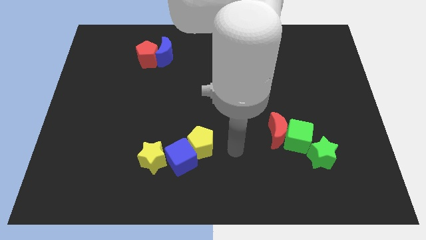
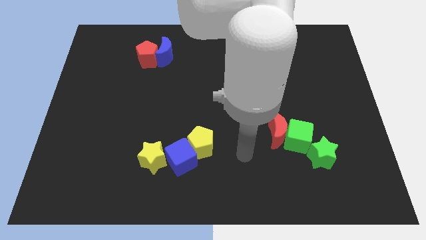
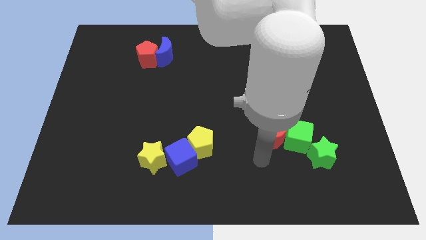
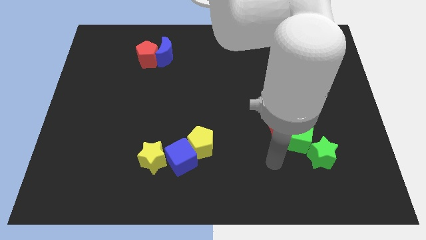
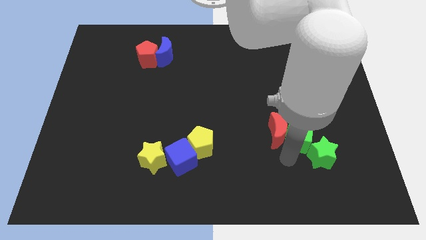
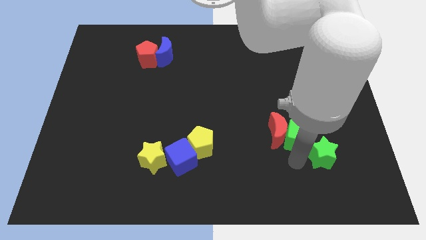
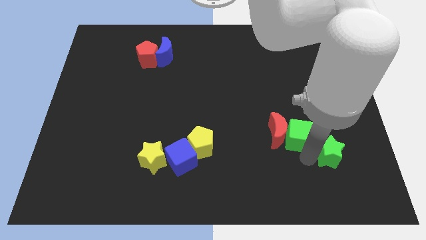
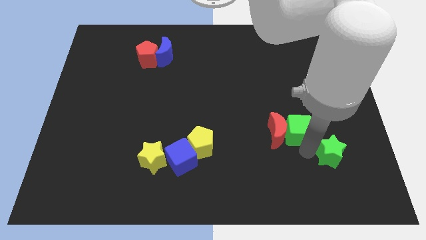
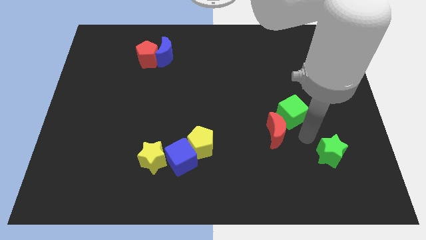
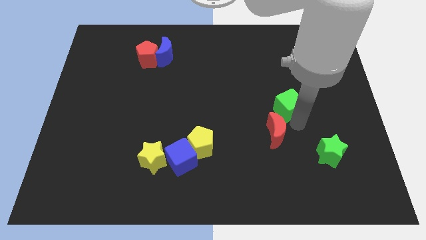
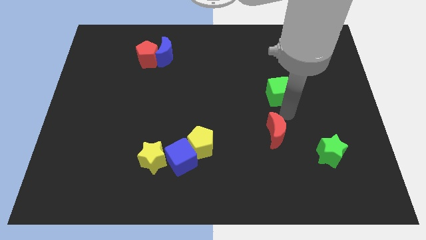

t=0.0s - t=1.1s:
move the red moon away from the green cube

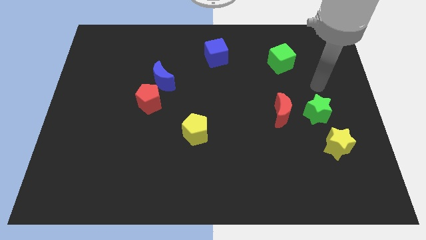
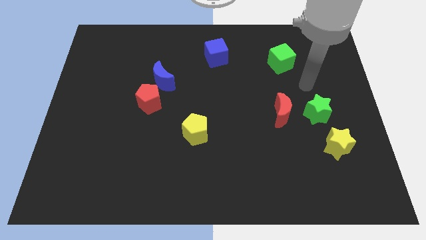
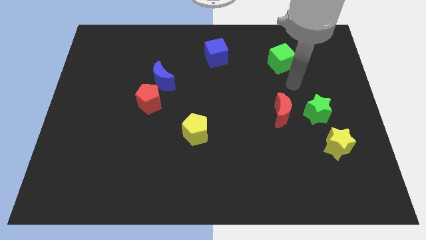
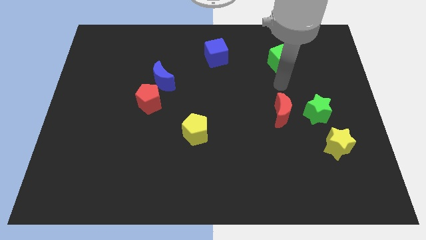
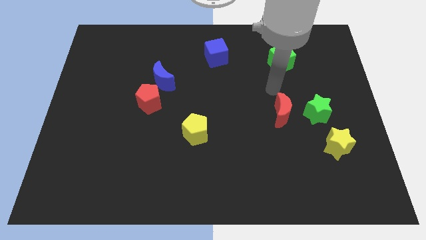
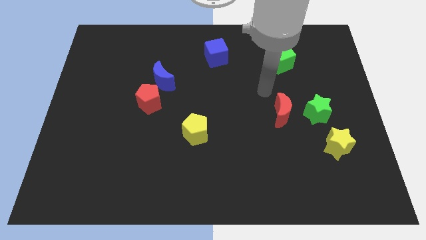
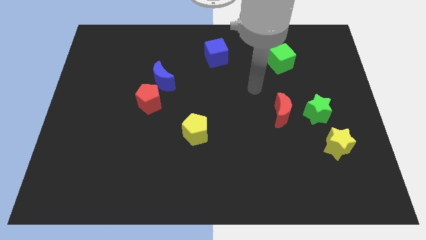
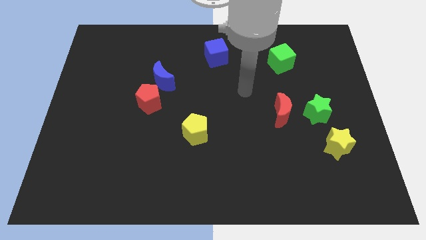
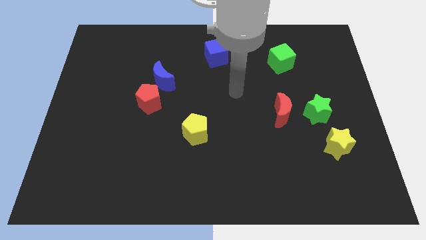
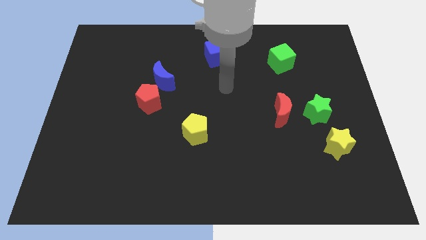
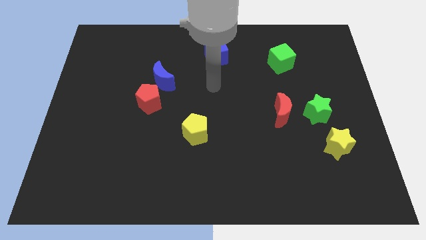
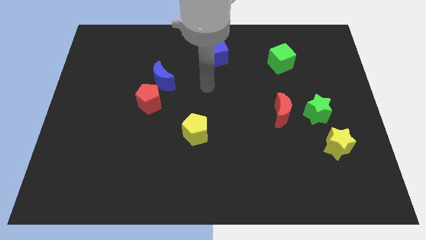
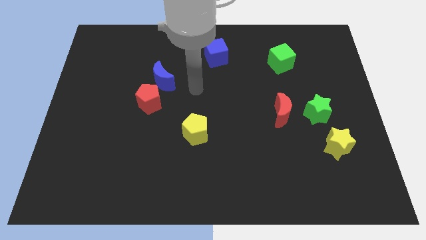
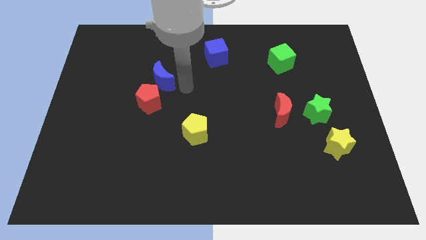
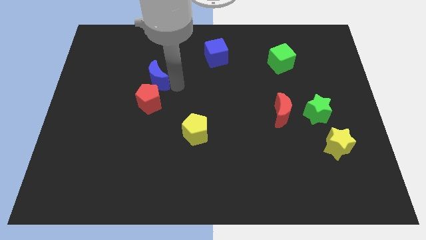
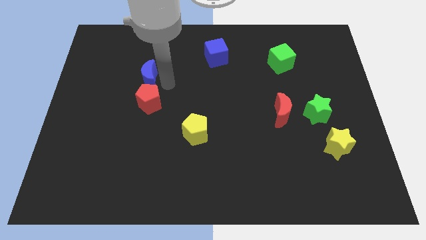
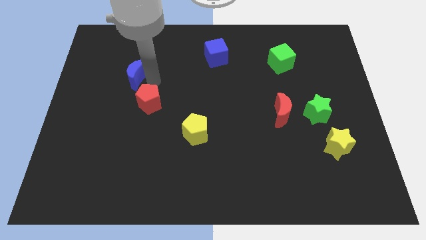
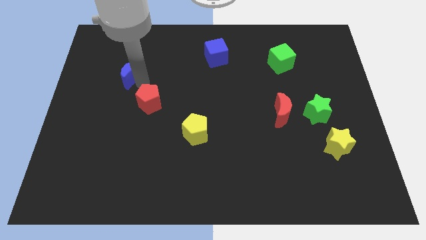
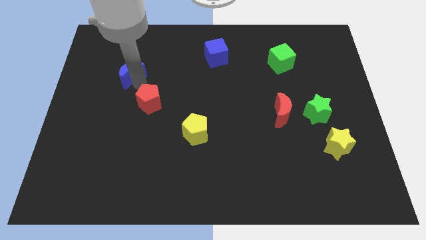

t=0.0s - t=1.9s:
move the red pentagon away from the blue moon

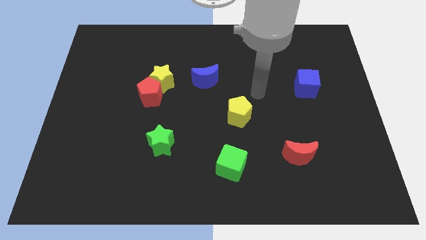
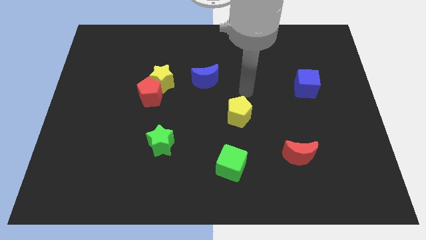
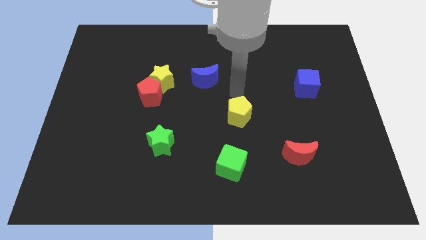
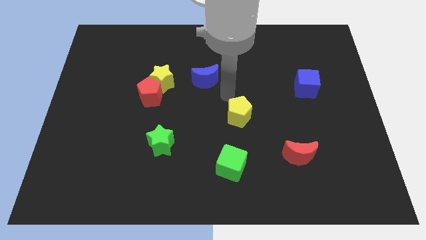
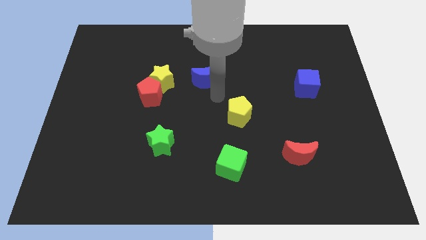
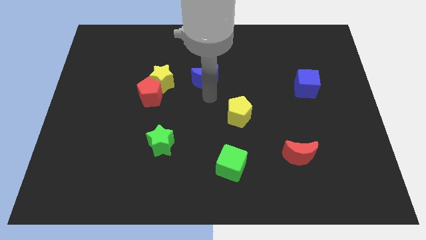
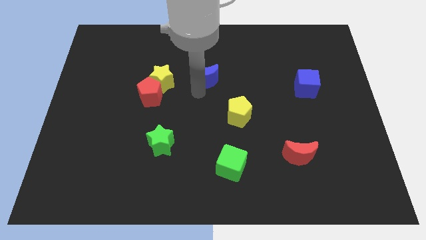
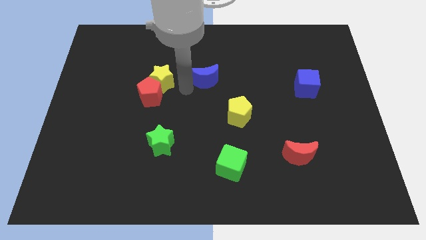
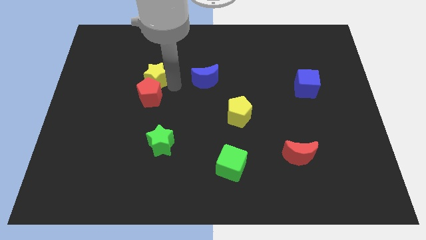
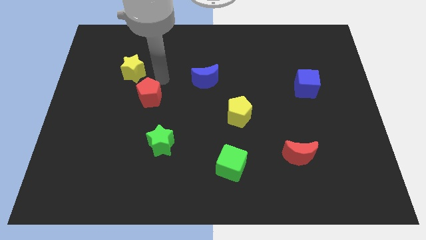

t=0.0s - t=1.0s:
pull the red pentagon apart from the yellow star

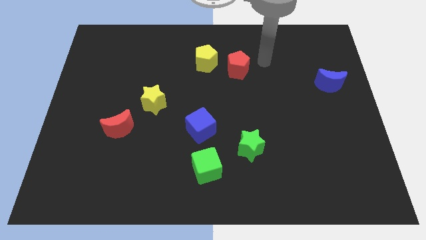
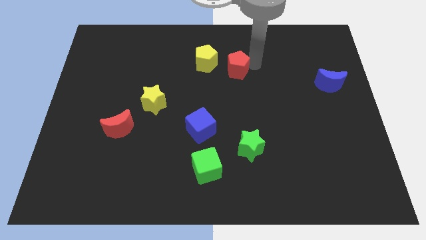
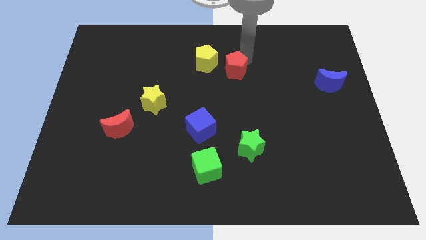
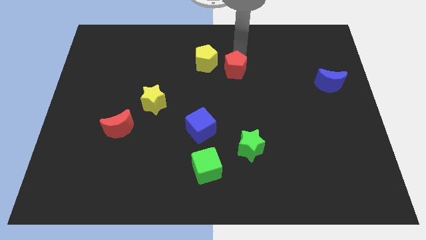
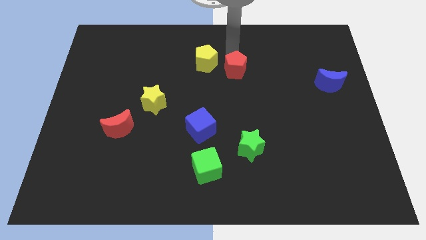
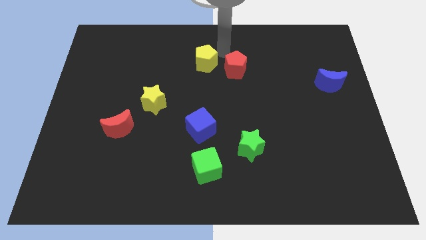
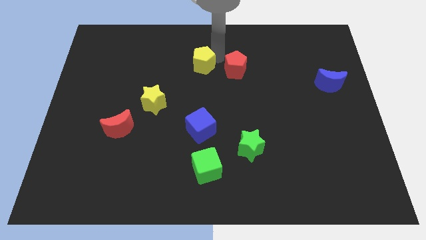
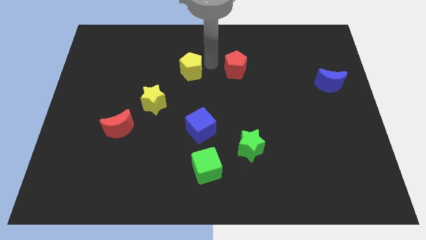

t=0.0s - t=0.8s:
separate the red pentagon from the yellow pentagon

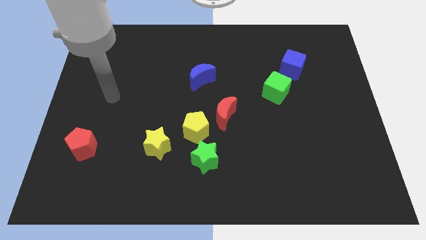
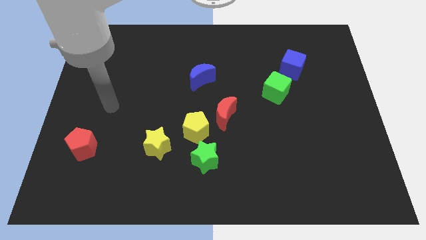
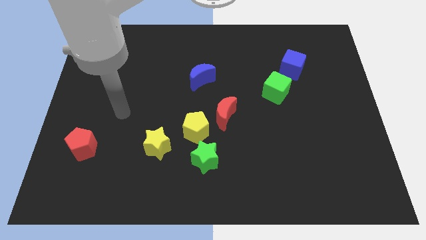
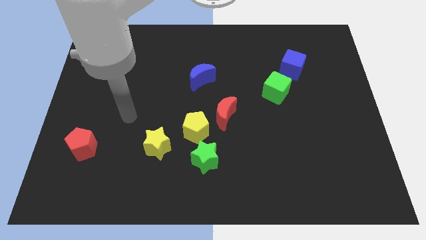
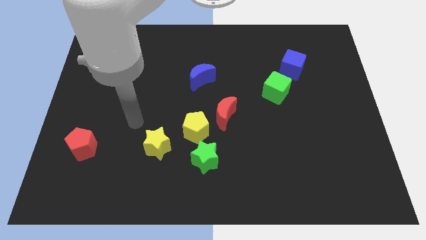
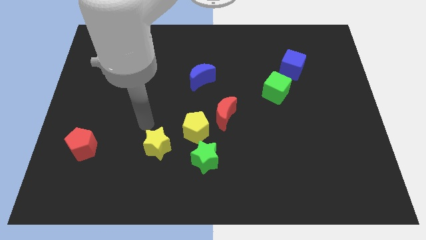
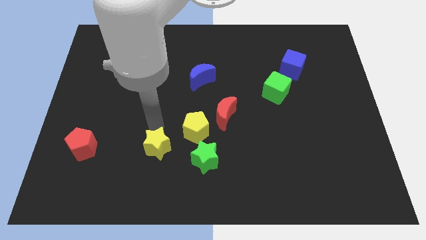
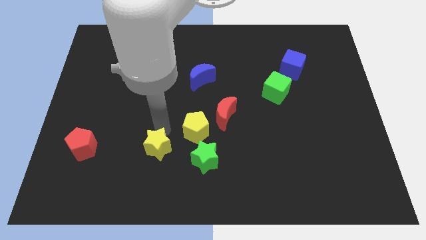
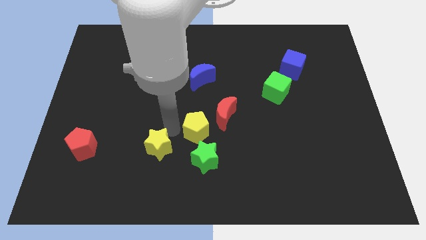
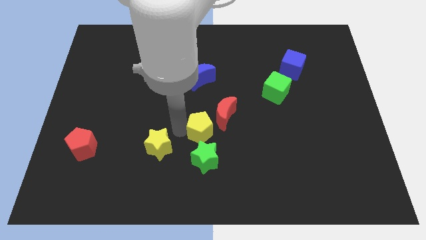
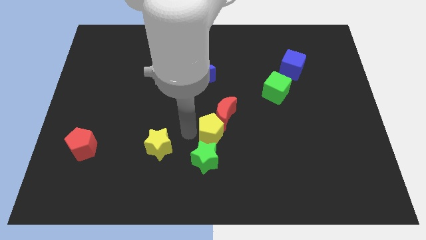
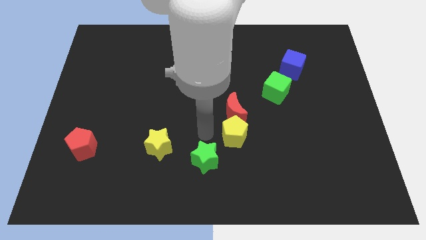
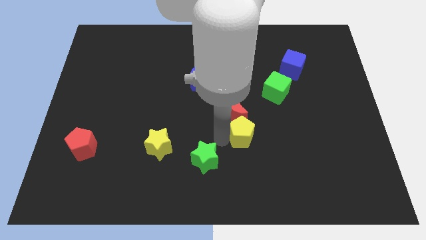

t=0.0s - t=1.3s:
pull the green star apart from the yellow pentagon

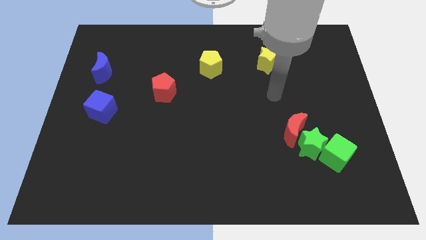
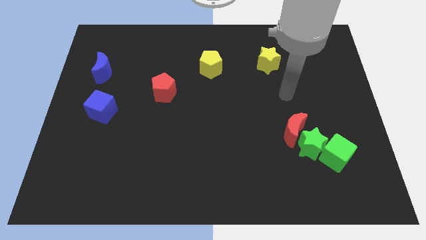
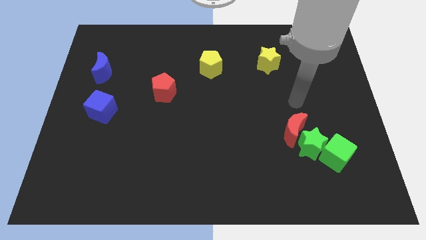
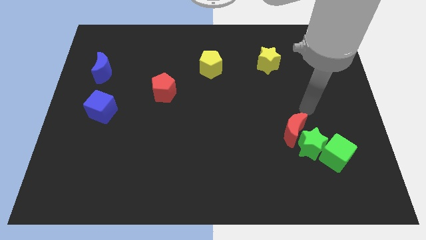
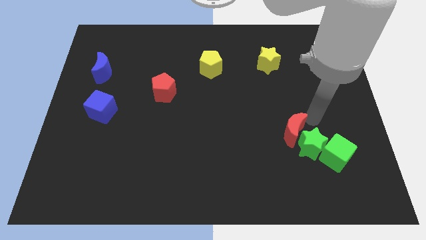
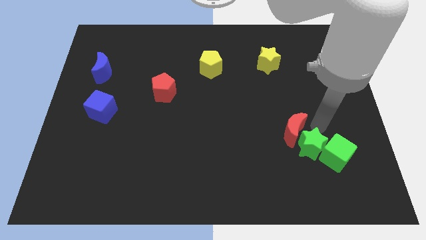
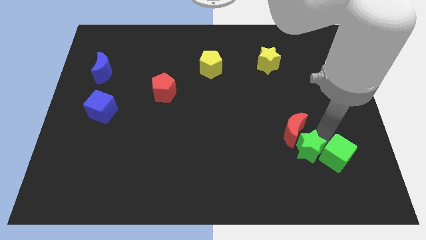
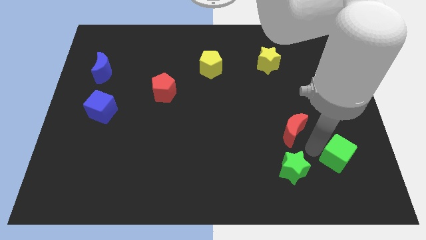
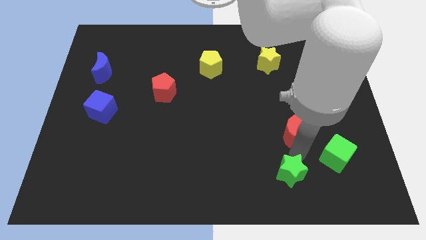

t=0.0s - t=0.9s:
separate the red moon from the green star

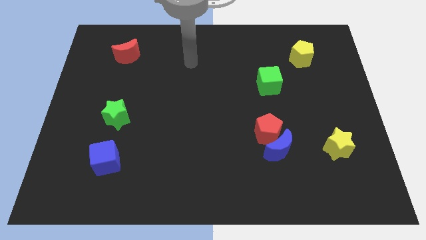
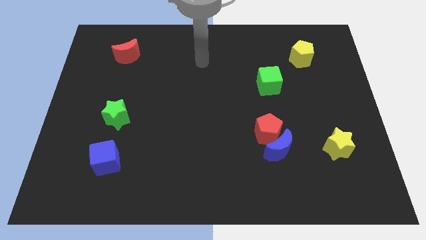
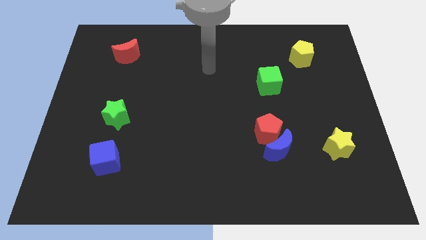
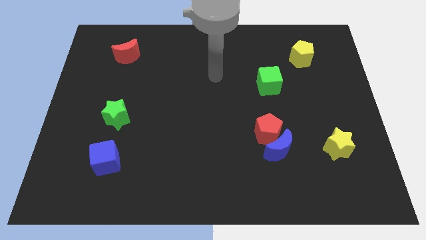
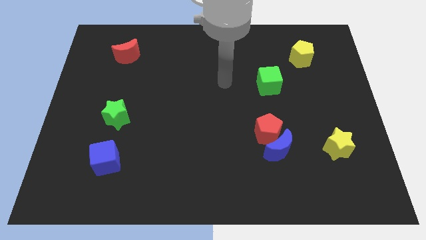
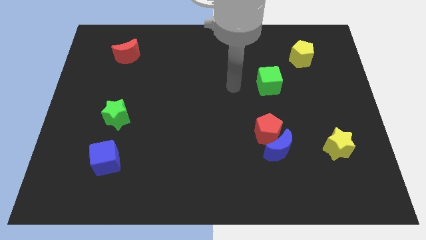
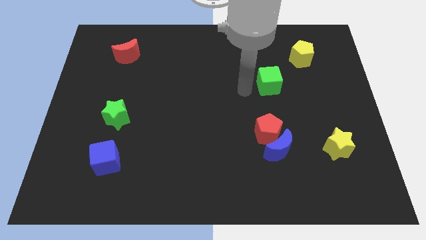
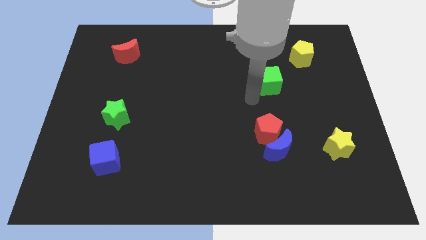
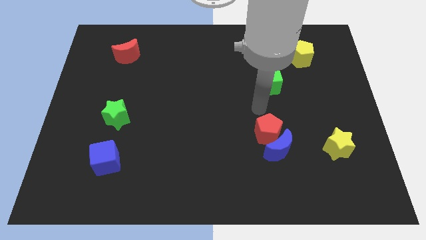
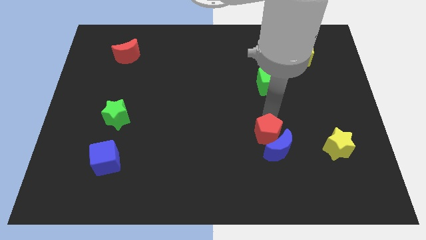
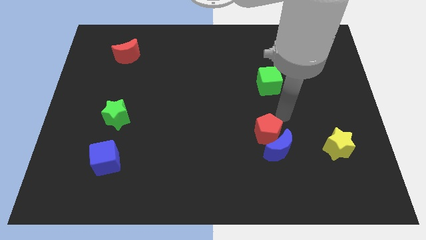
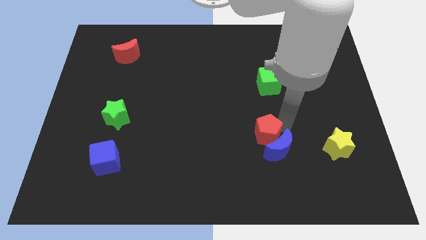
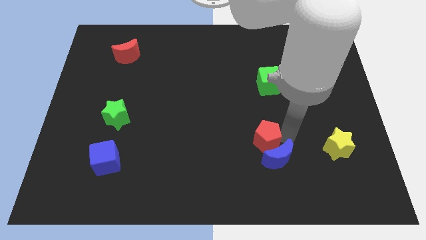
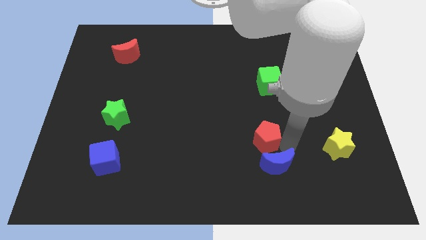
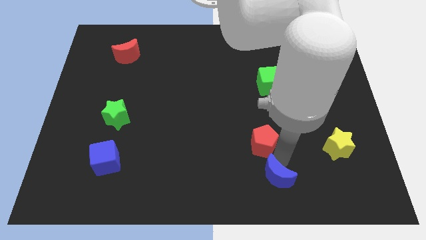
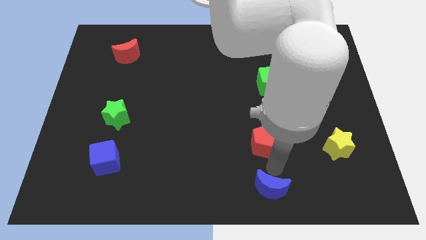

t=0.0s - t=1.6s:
separate the red pentagon from the blue moon

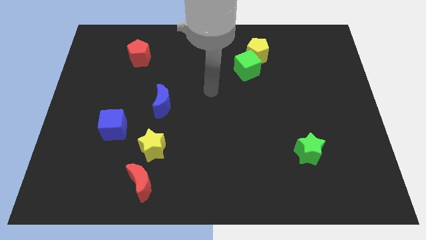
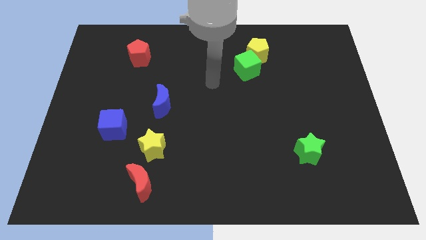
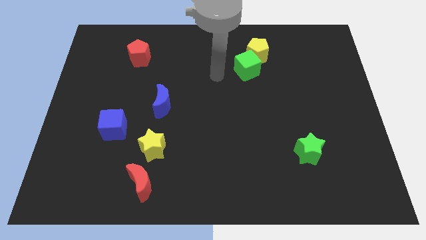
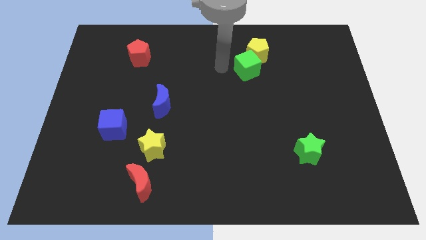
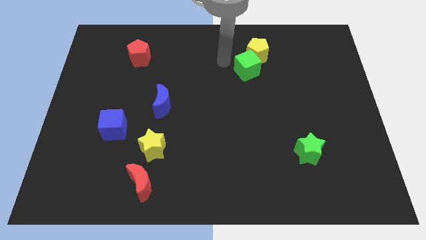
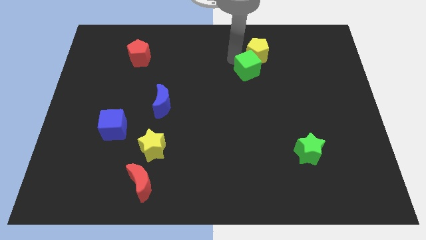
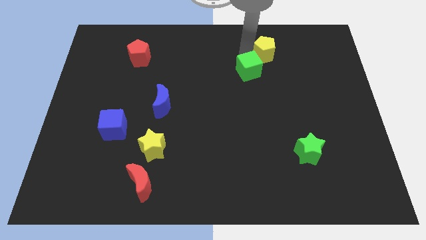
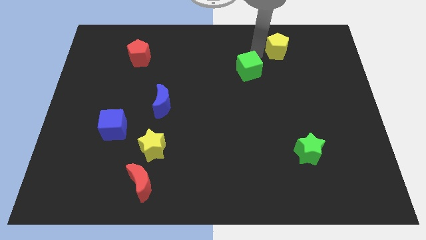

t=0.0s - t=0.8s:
separate the green cube from the yellow pentagon
